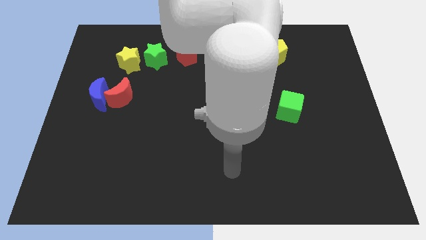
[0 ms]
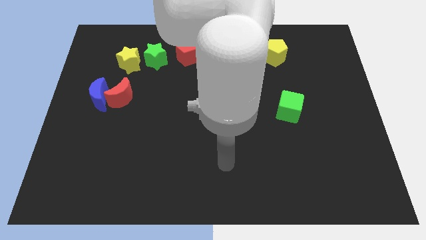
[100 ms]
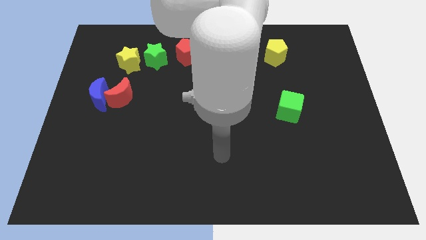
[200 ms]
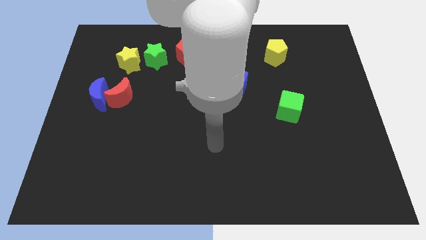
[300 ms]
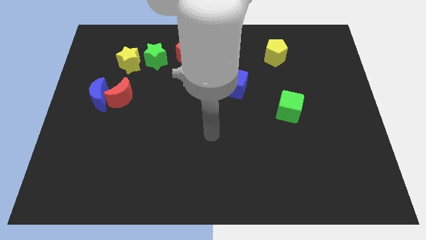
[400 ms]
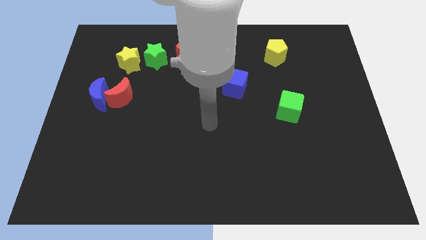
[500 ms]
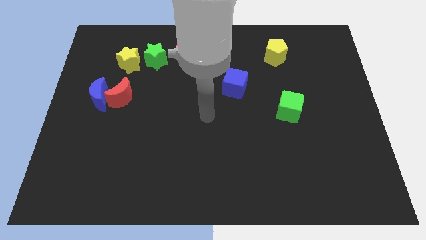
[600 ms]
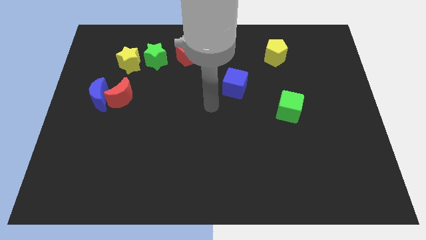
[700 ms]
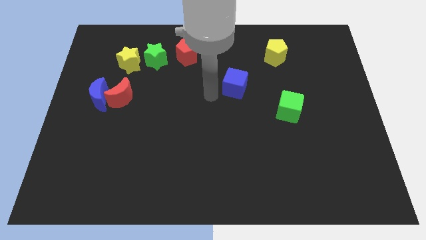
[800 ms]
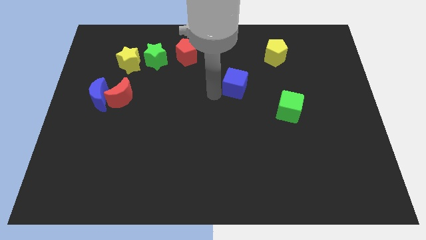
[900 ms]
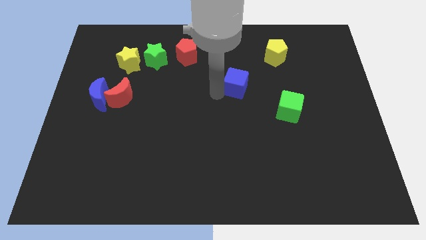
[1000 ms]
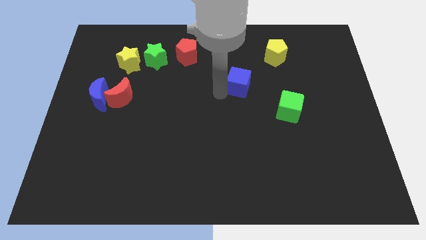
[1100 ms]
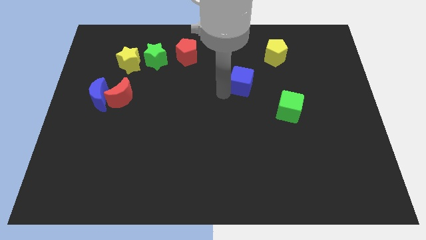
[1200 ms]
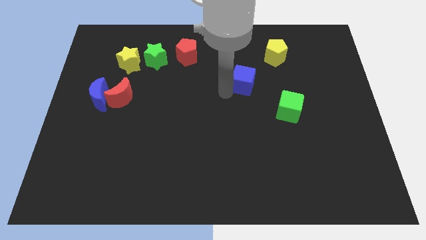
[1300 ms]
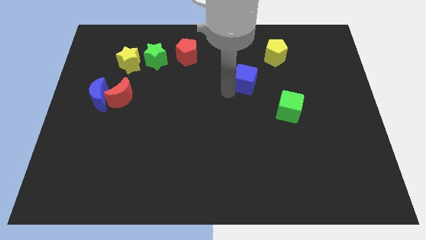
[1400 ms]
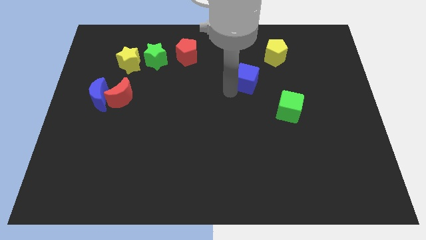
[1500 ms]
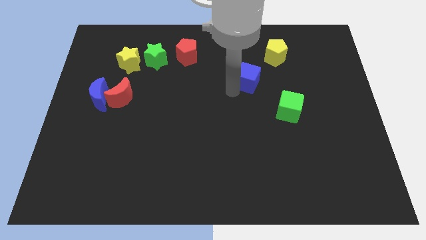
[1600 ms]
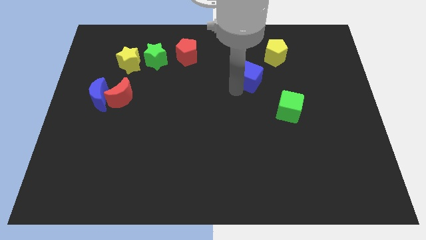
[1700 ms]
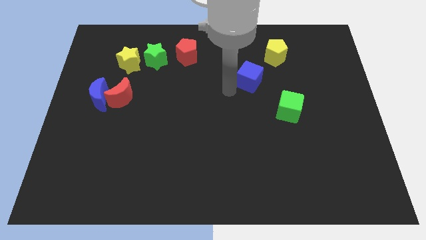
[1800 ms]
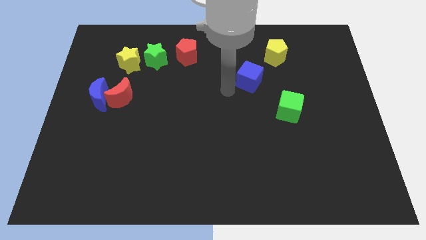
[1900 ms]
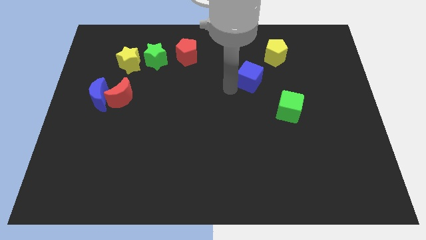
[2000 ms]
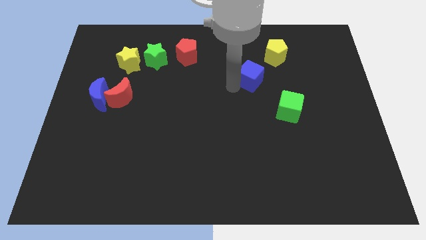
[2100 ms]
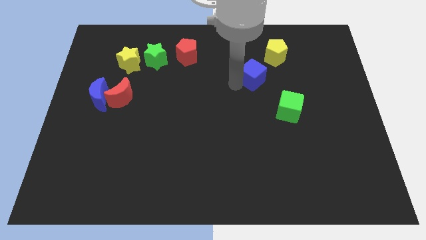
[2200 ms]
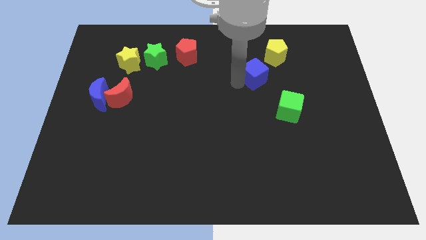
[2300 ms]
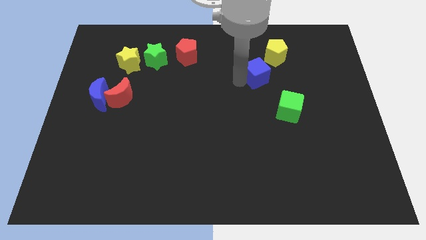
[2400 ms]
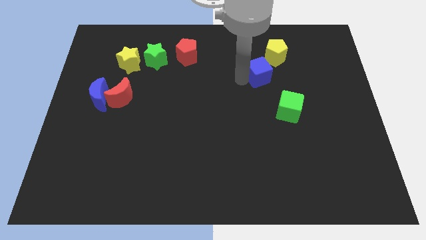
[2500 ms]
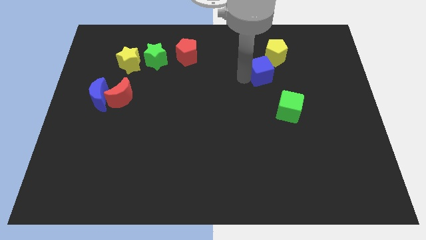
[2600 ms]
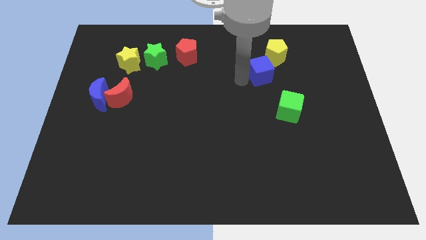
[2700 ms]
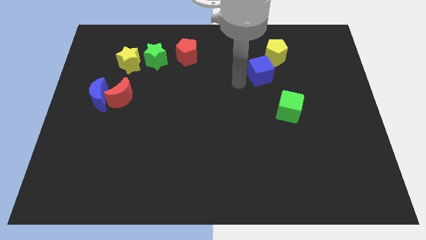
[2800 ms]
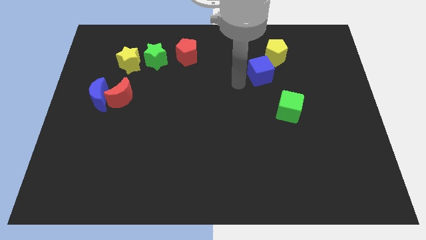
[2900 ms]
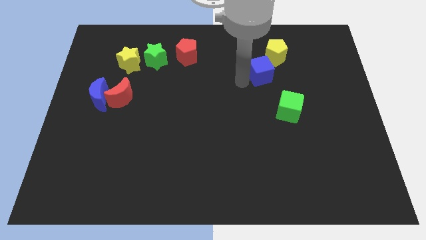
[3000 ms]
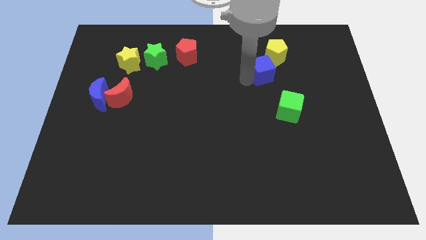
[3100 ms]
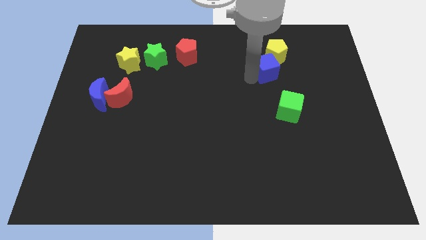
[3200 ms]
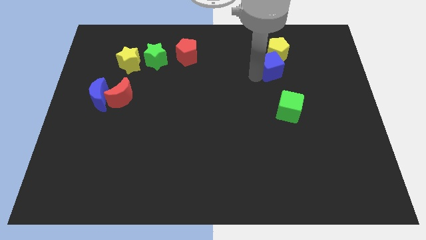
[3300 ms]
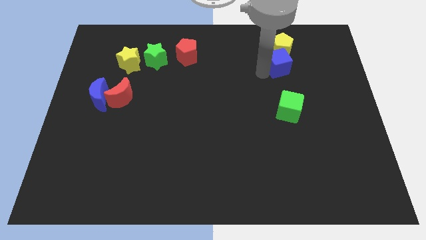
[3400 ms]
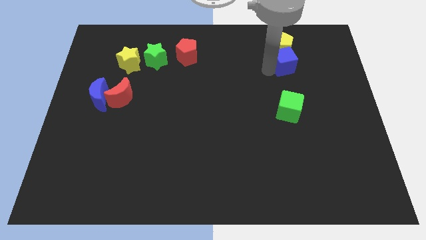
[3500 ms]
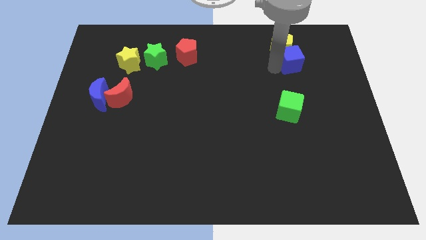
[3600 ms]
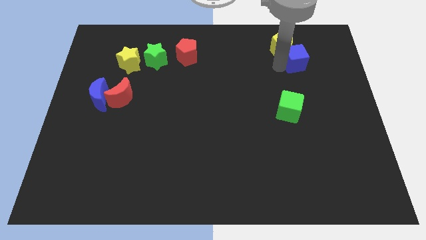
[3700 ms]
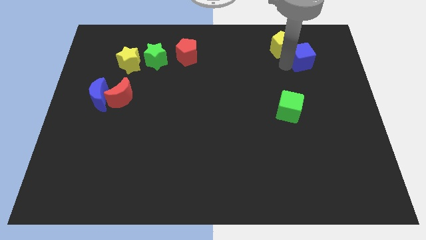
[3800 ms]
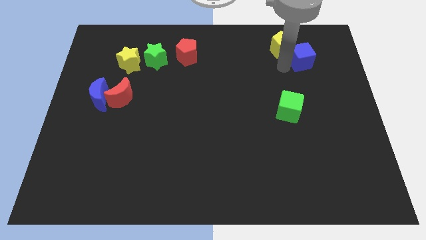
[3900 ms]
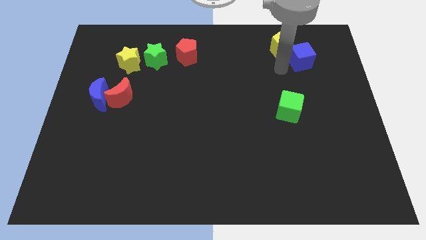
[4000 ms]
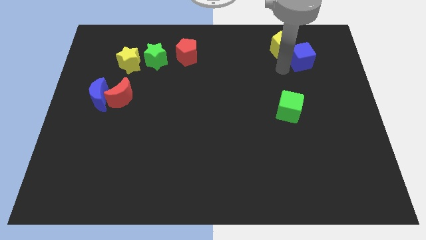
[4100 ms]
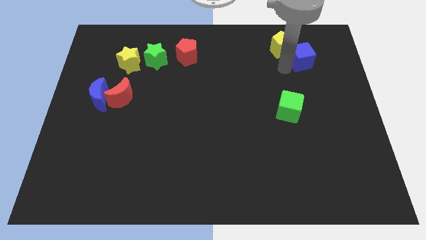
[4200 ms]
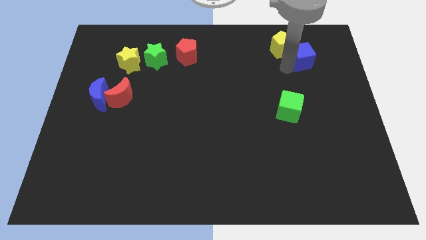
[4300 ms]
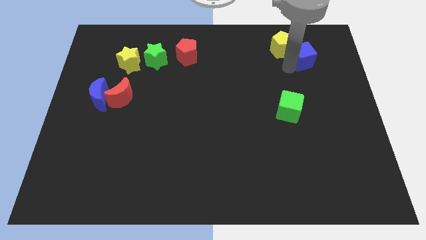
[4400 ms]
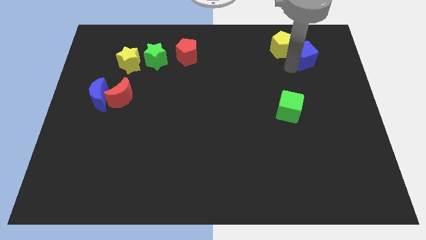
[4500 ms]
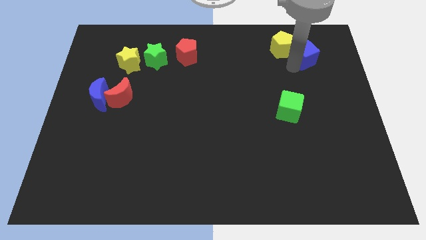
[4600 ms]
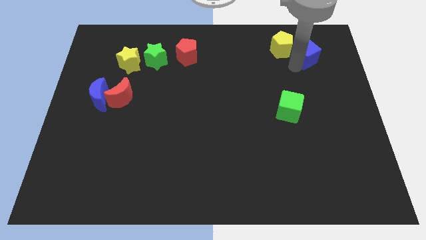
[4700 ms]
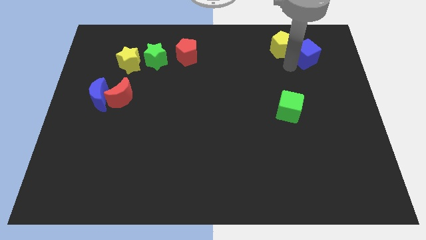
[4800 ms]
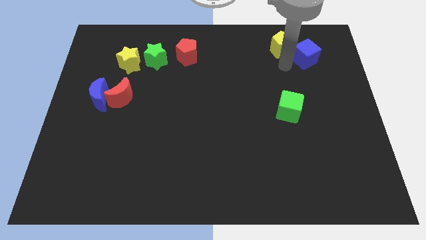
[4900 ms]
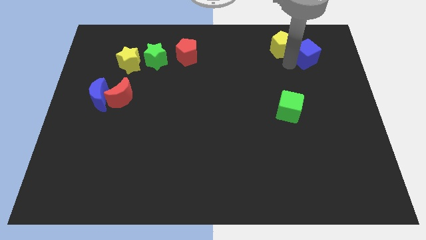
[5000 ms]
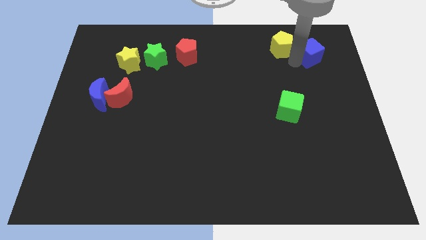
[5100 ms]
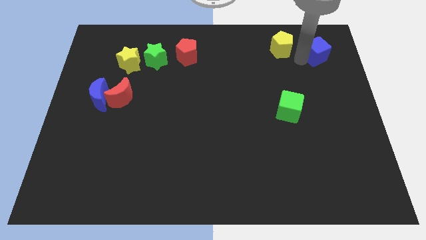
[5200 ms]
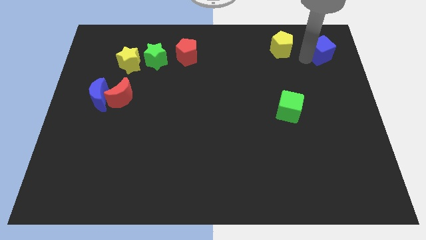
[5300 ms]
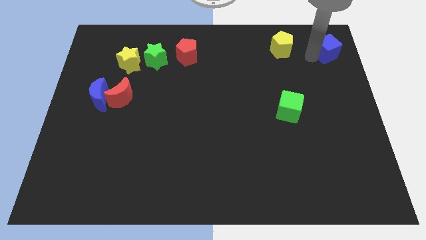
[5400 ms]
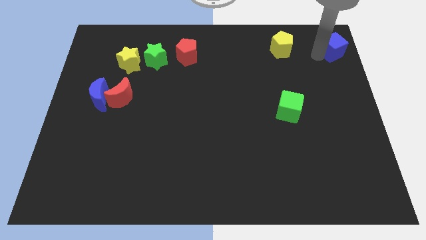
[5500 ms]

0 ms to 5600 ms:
put the blue cube to the top right

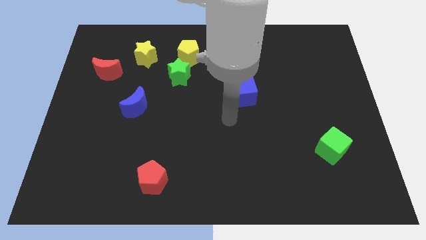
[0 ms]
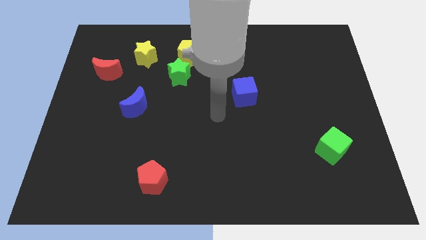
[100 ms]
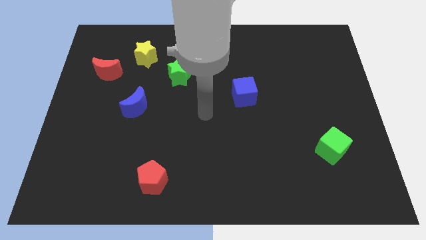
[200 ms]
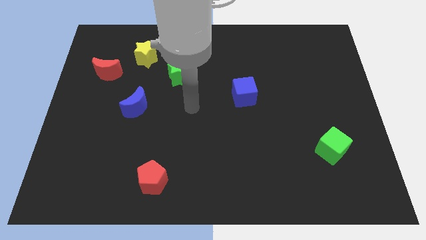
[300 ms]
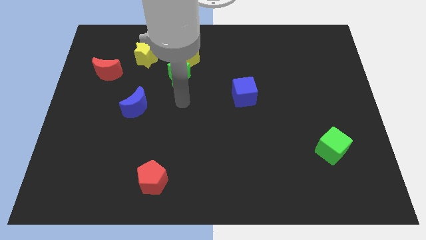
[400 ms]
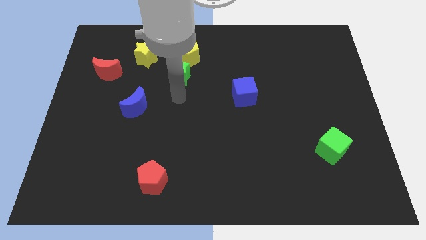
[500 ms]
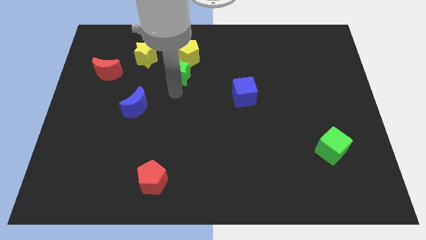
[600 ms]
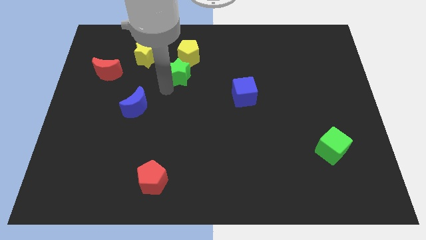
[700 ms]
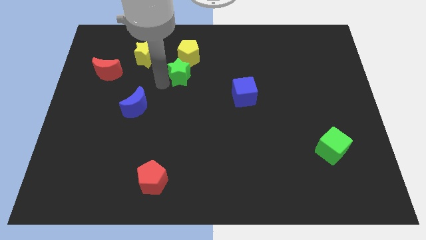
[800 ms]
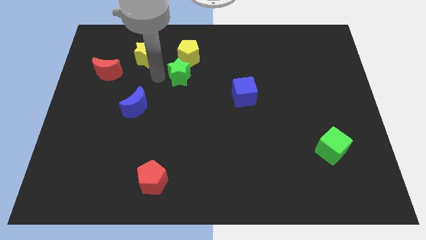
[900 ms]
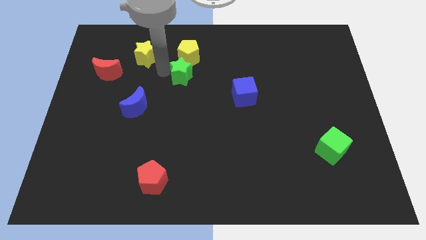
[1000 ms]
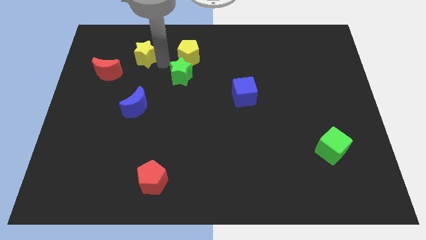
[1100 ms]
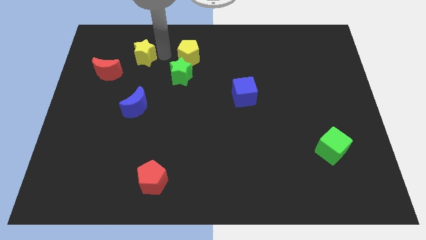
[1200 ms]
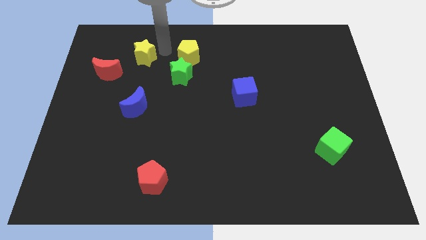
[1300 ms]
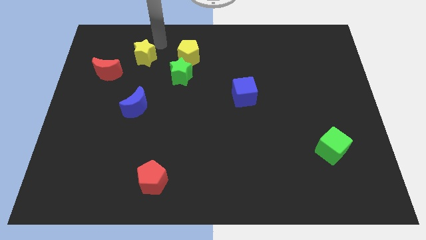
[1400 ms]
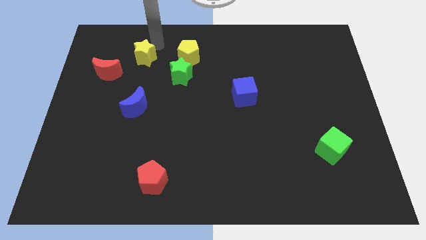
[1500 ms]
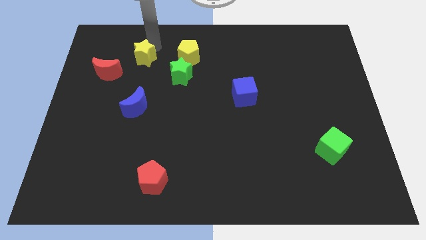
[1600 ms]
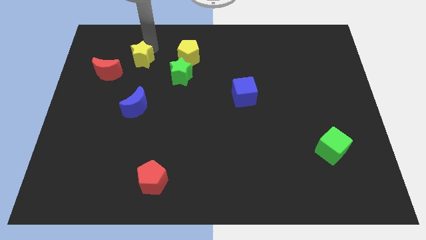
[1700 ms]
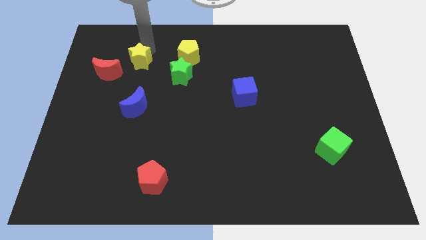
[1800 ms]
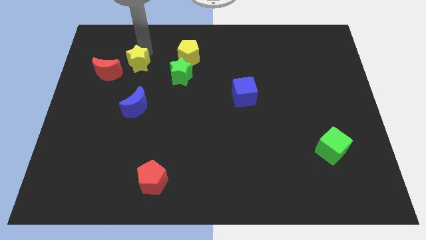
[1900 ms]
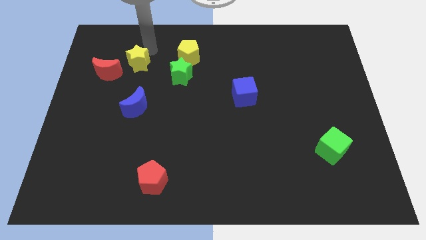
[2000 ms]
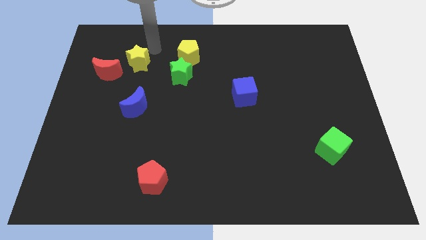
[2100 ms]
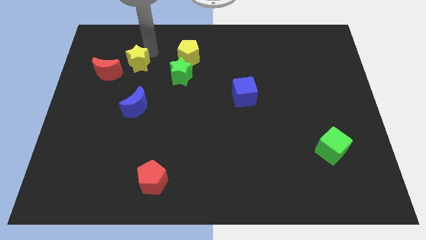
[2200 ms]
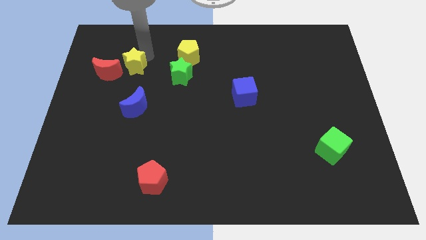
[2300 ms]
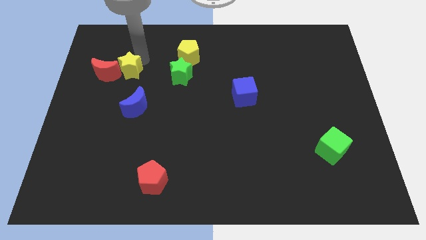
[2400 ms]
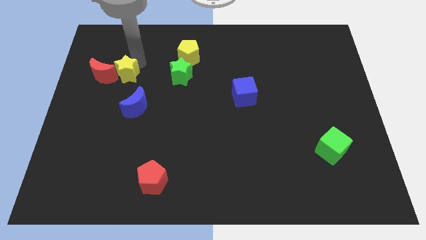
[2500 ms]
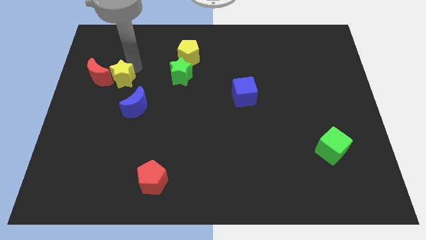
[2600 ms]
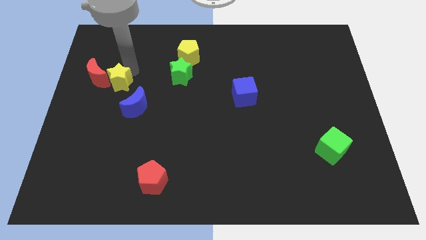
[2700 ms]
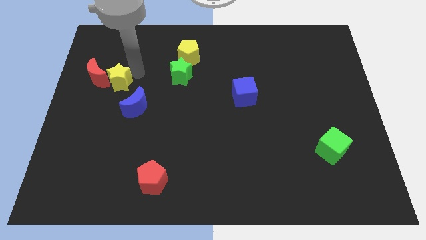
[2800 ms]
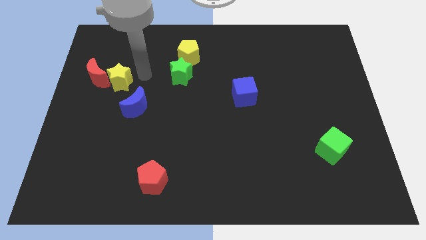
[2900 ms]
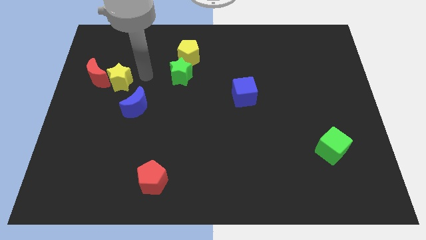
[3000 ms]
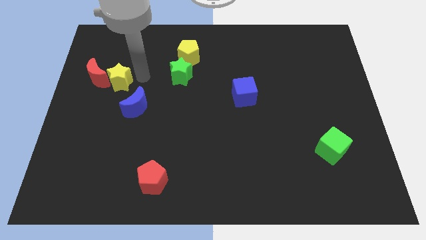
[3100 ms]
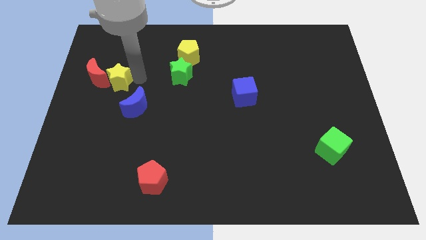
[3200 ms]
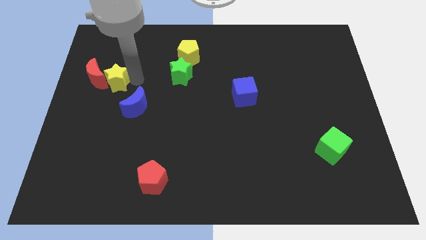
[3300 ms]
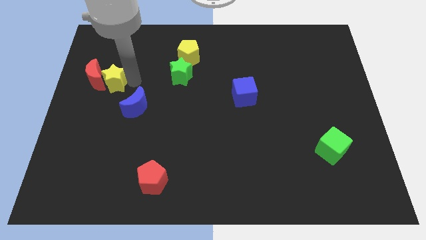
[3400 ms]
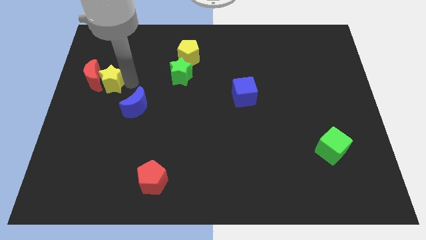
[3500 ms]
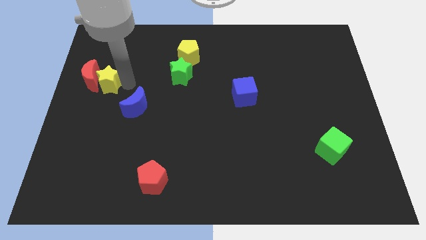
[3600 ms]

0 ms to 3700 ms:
push the yellow star to the left side of the board
